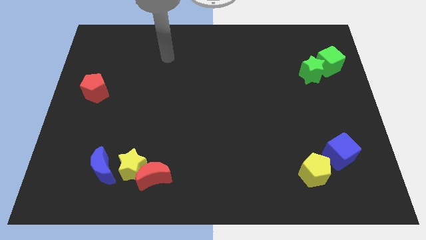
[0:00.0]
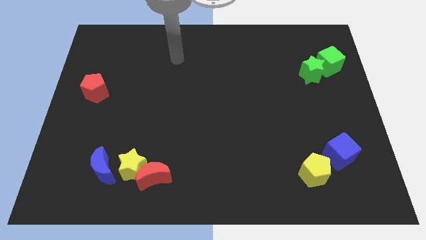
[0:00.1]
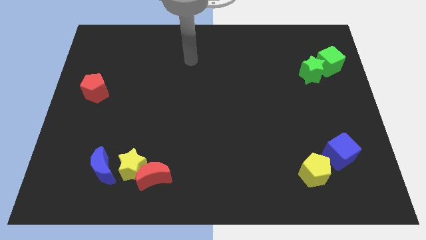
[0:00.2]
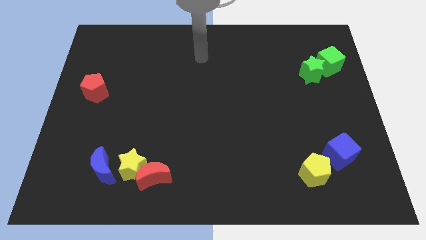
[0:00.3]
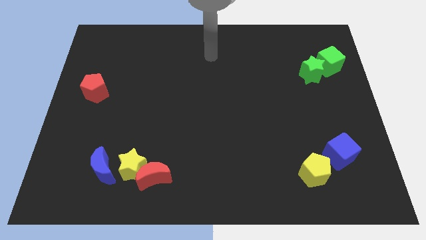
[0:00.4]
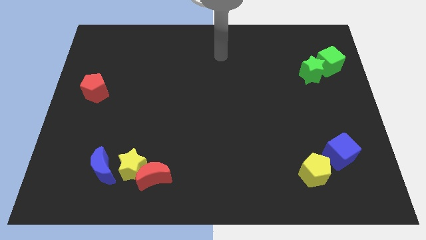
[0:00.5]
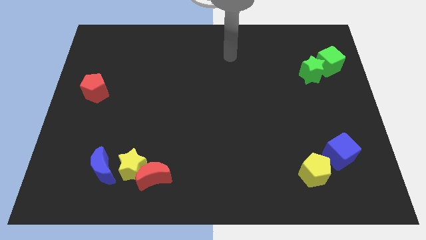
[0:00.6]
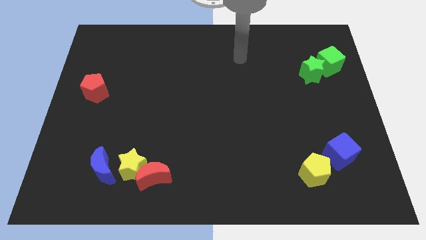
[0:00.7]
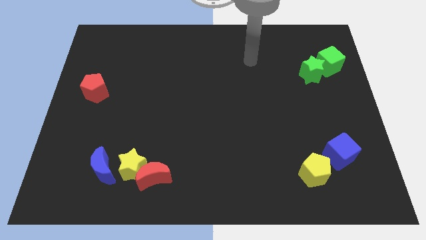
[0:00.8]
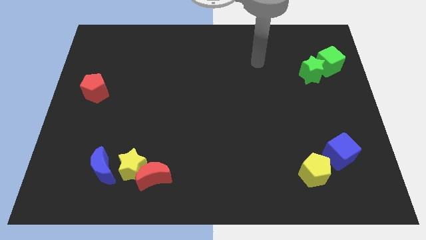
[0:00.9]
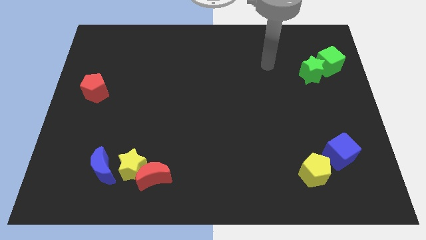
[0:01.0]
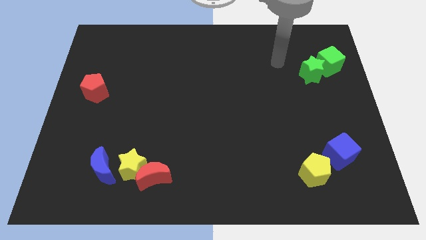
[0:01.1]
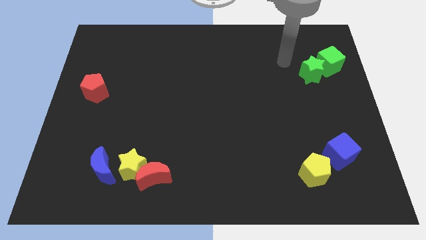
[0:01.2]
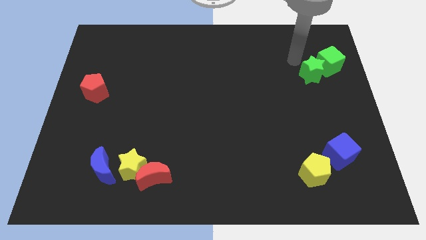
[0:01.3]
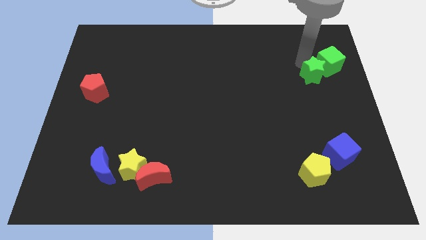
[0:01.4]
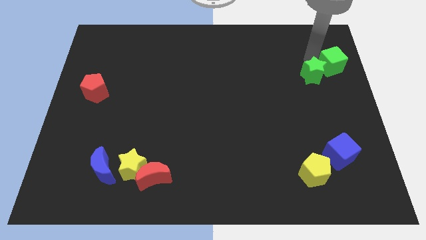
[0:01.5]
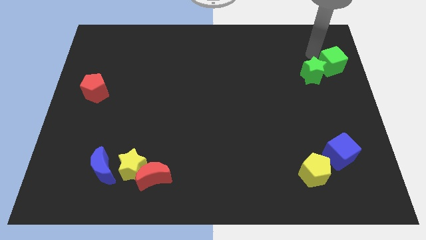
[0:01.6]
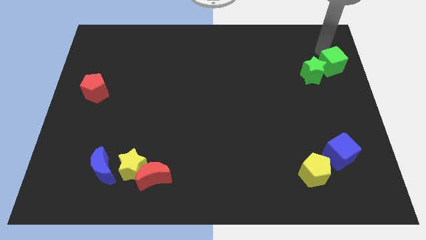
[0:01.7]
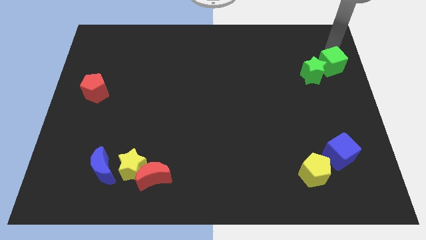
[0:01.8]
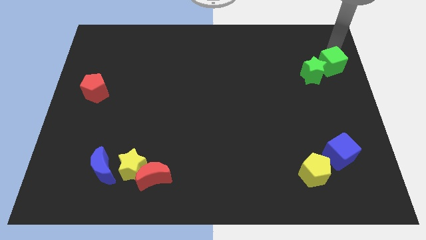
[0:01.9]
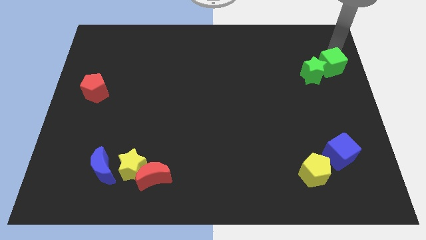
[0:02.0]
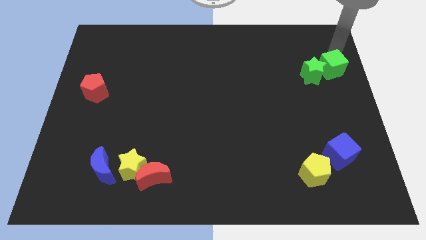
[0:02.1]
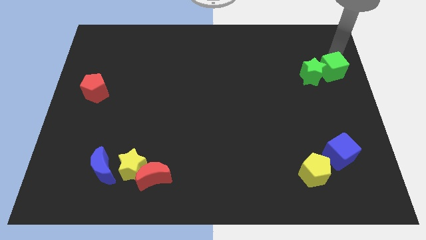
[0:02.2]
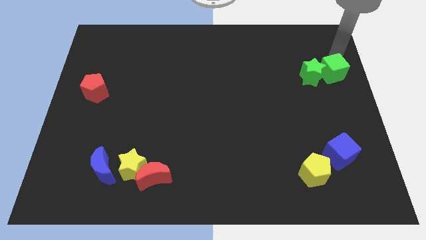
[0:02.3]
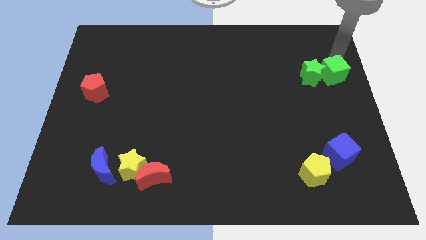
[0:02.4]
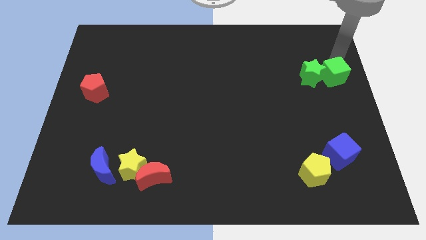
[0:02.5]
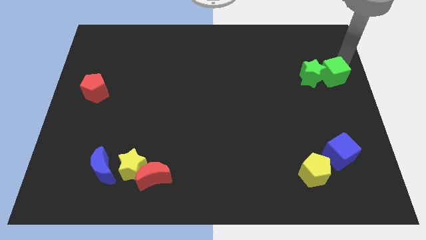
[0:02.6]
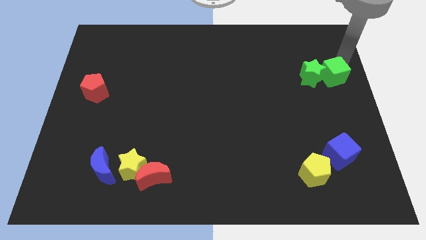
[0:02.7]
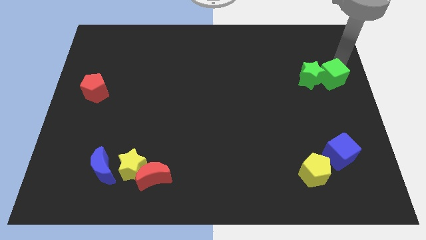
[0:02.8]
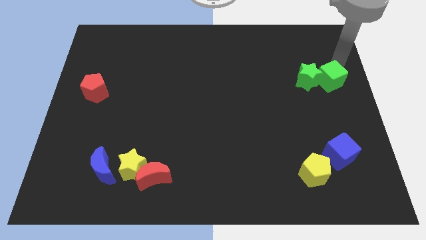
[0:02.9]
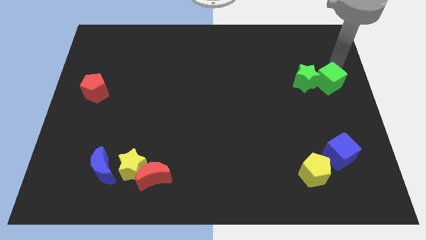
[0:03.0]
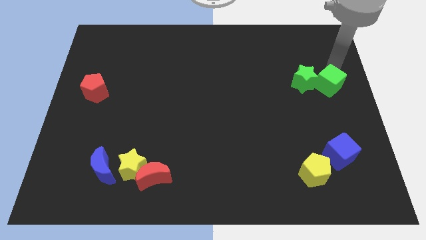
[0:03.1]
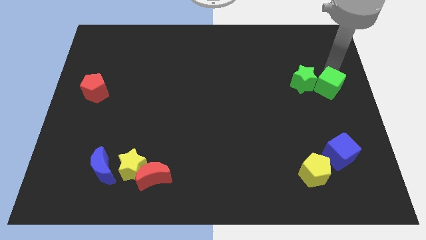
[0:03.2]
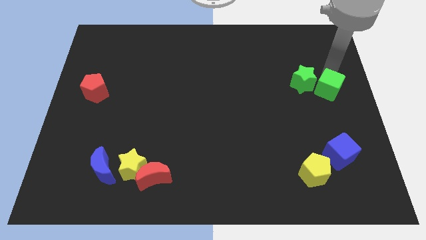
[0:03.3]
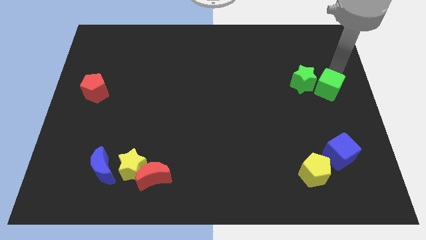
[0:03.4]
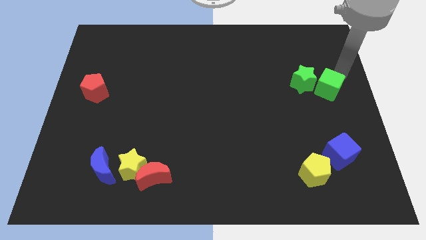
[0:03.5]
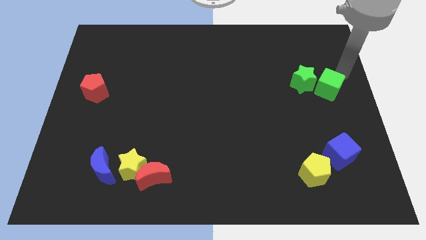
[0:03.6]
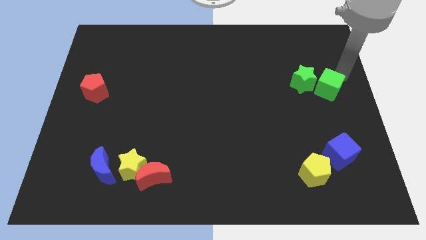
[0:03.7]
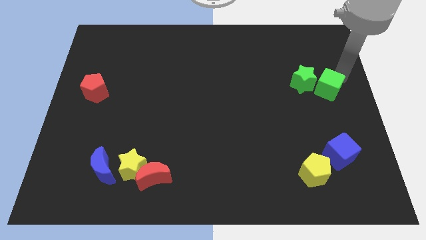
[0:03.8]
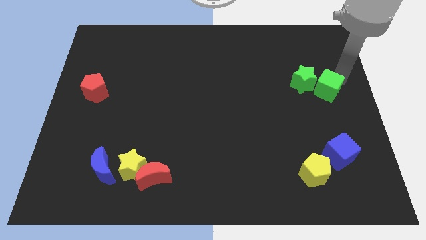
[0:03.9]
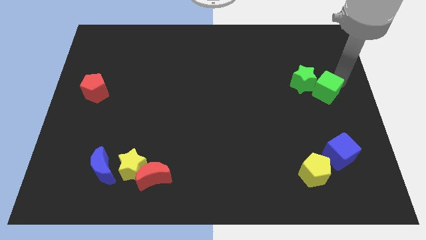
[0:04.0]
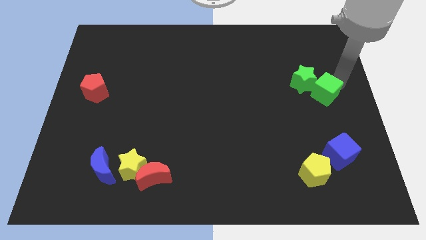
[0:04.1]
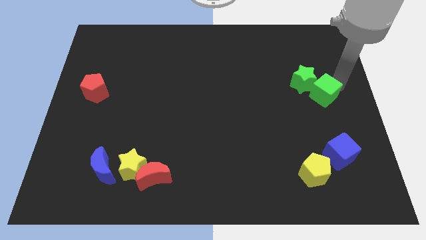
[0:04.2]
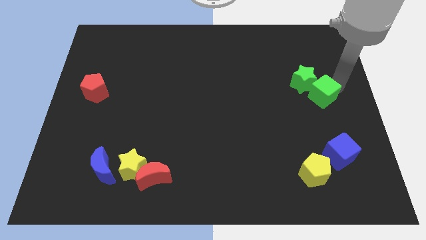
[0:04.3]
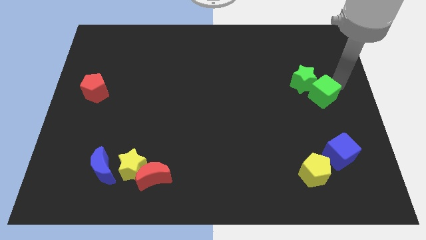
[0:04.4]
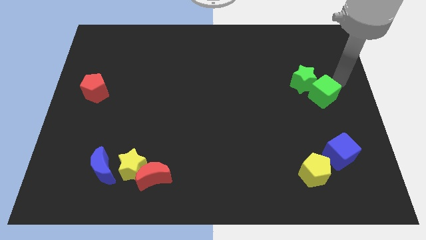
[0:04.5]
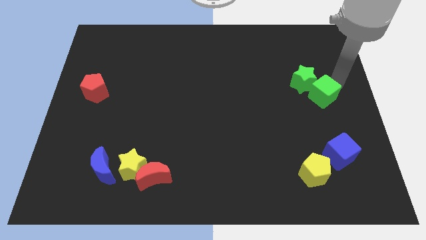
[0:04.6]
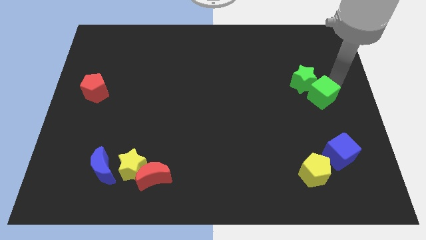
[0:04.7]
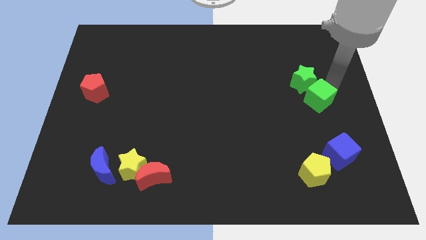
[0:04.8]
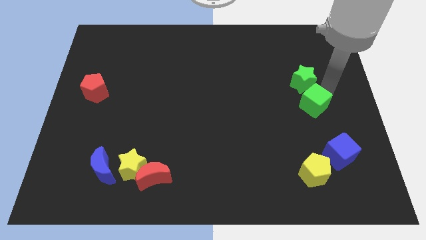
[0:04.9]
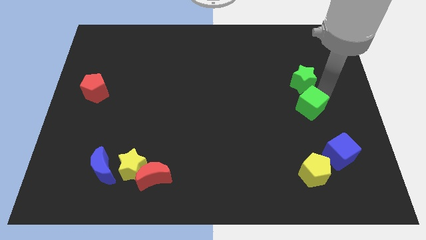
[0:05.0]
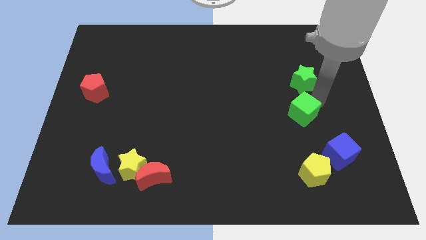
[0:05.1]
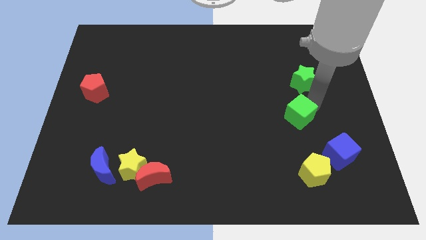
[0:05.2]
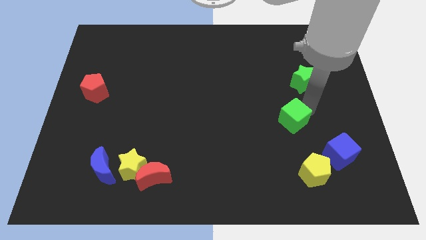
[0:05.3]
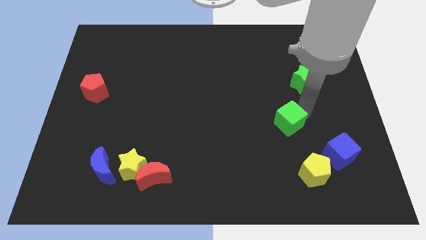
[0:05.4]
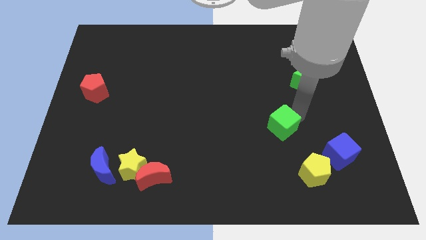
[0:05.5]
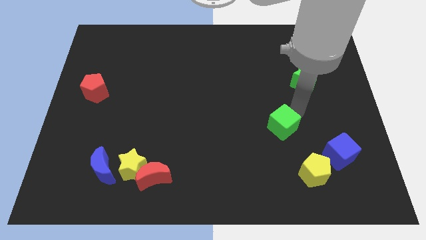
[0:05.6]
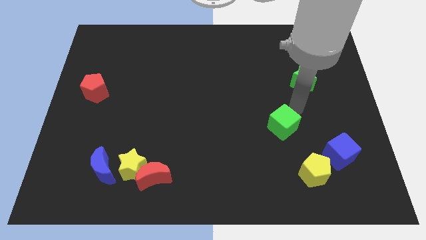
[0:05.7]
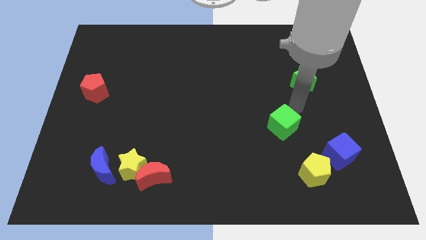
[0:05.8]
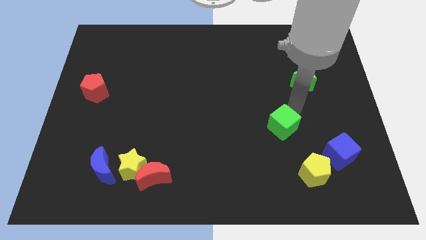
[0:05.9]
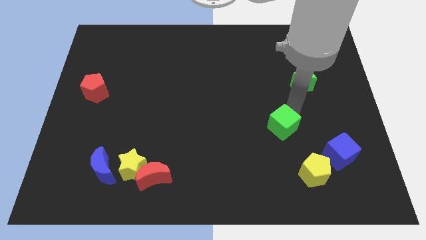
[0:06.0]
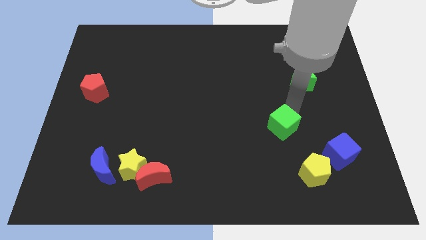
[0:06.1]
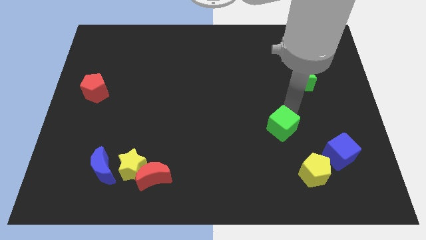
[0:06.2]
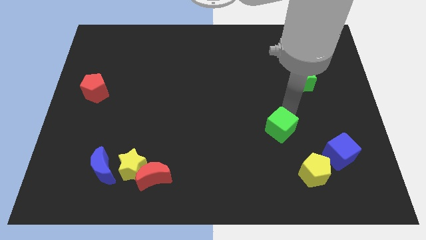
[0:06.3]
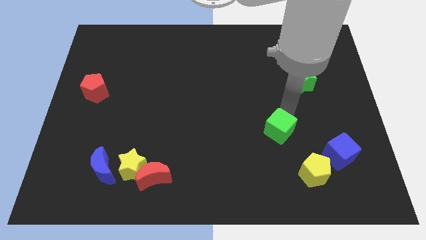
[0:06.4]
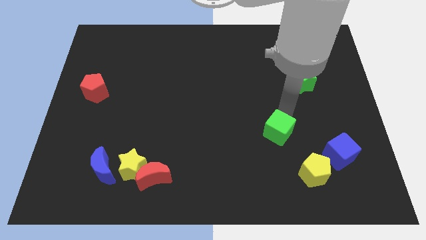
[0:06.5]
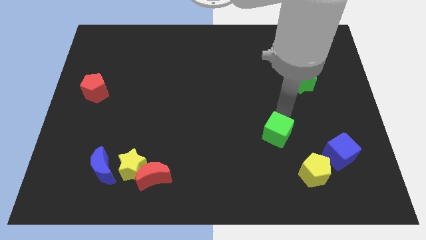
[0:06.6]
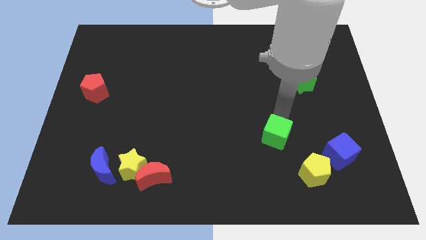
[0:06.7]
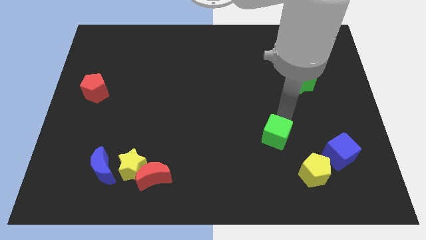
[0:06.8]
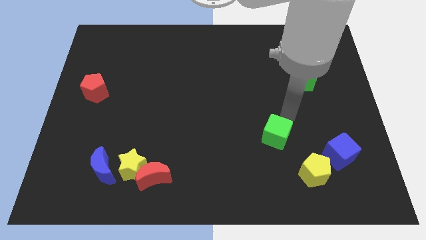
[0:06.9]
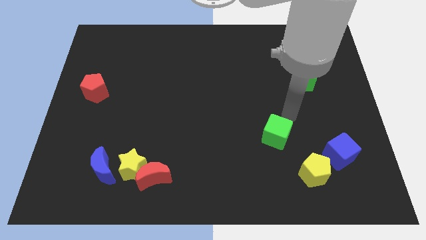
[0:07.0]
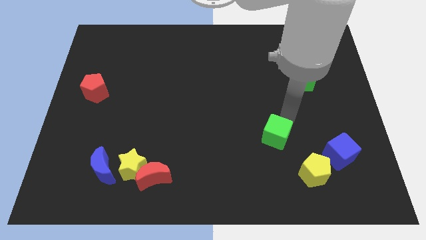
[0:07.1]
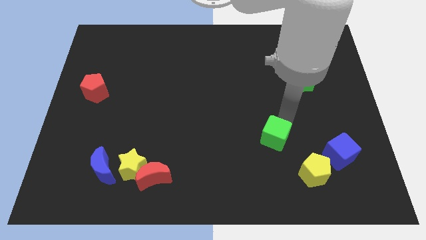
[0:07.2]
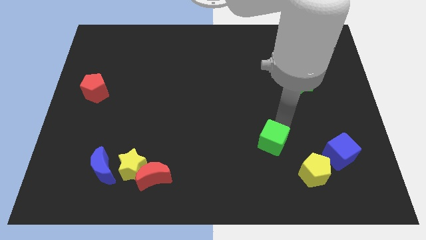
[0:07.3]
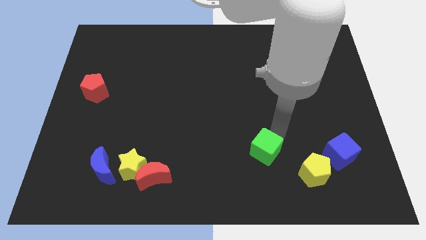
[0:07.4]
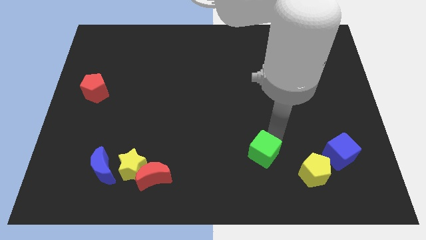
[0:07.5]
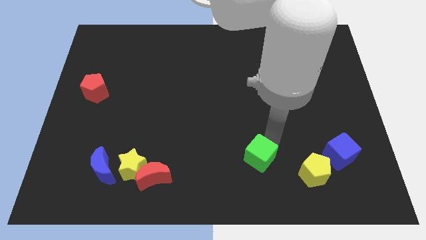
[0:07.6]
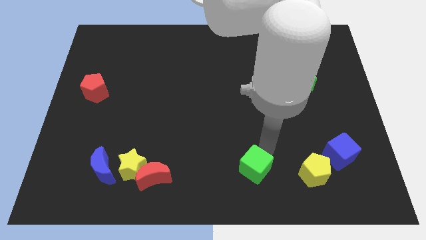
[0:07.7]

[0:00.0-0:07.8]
push the green cube to the bottom
